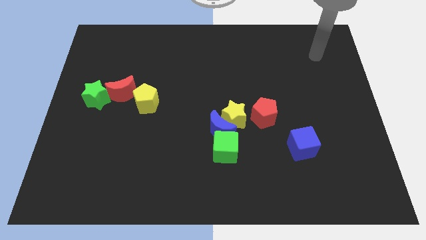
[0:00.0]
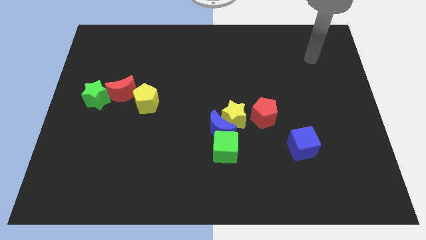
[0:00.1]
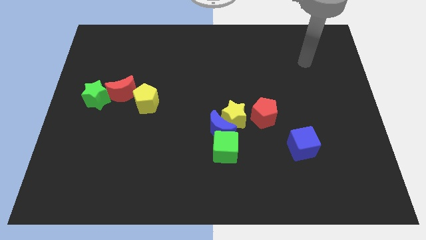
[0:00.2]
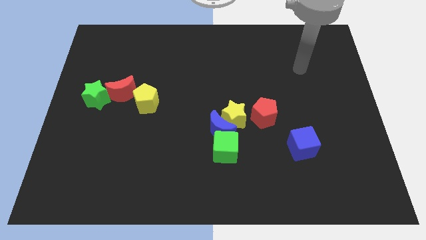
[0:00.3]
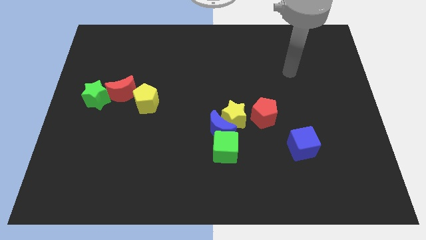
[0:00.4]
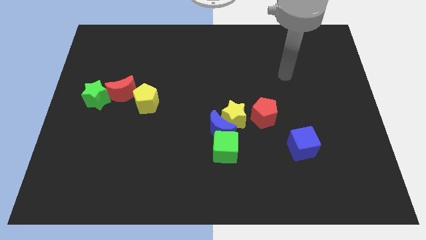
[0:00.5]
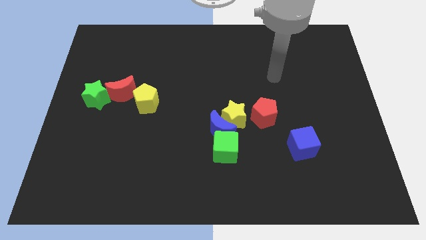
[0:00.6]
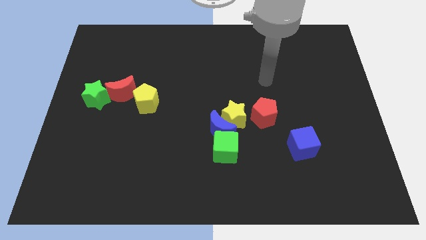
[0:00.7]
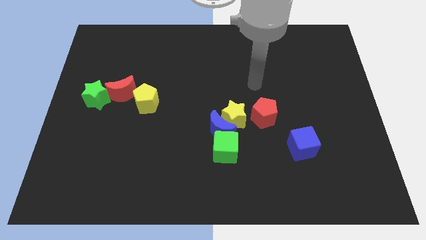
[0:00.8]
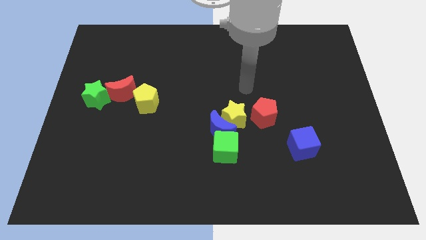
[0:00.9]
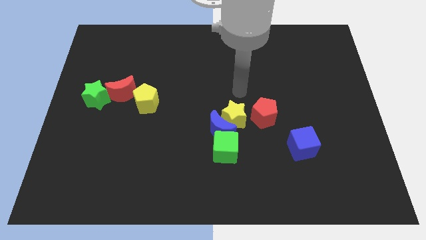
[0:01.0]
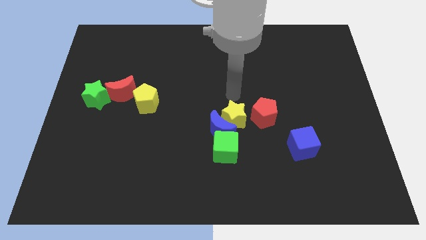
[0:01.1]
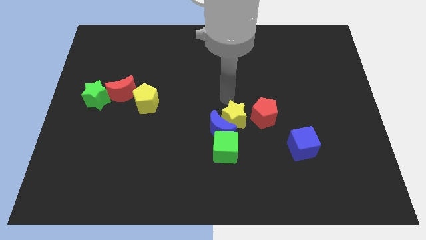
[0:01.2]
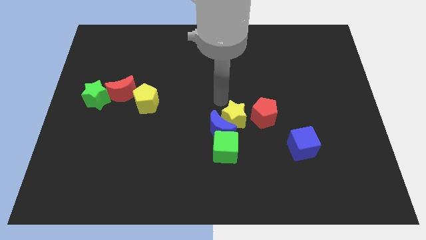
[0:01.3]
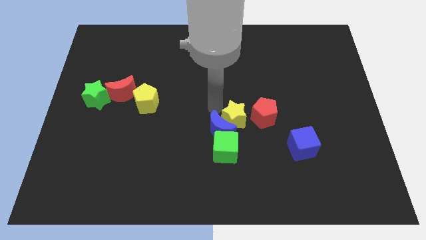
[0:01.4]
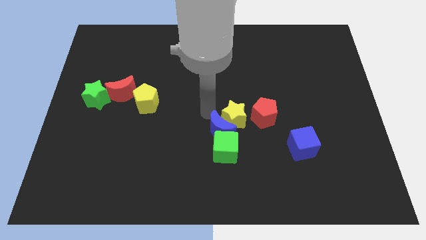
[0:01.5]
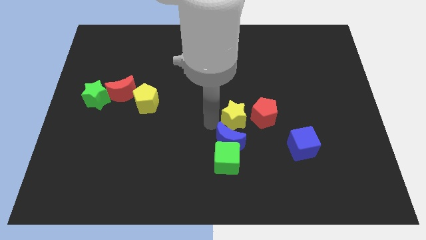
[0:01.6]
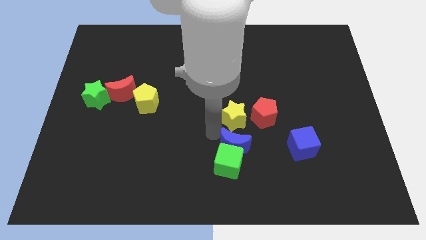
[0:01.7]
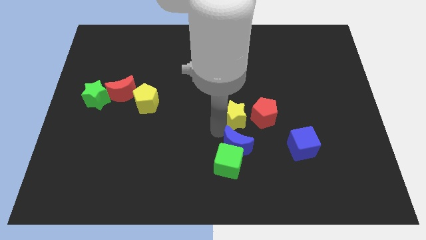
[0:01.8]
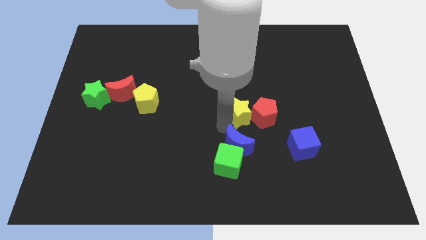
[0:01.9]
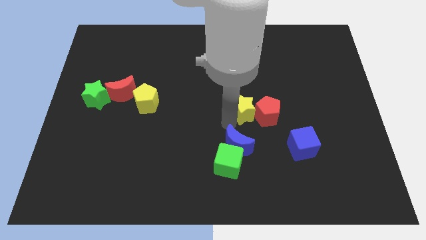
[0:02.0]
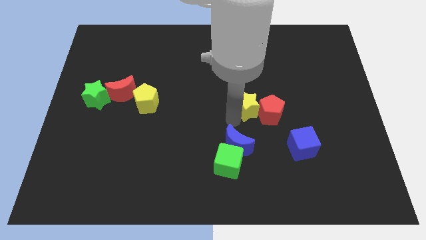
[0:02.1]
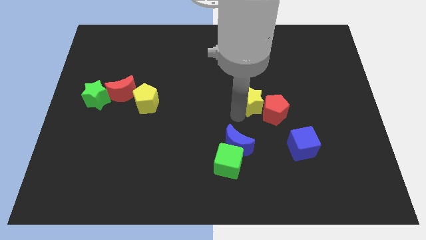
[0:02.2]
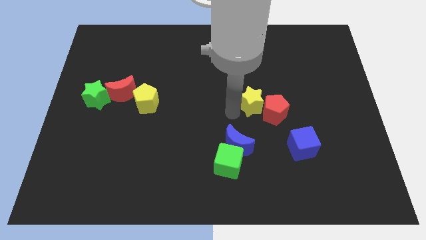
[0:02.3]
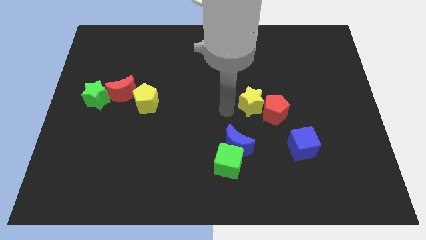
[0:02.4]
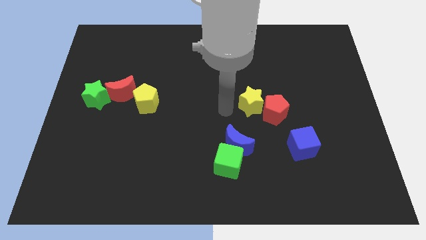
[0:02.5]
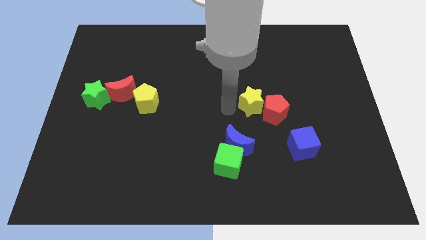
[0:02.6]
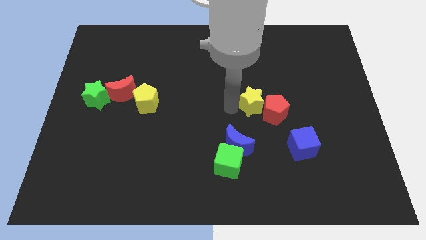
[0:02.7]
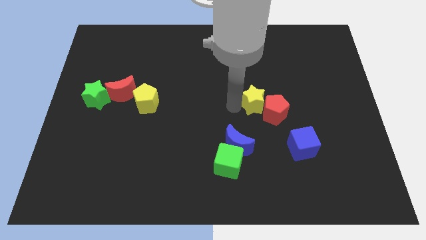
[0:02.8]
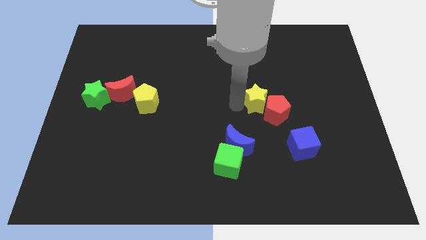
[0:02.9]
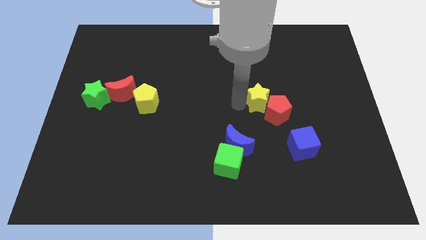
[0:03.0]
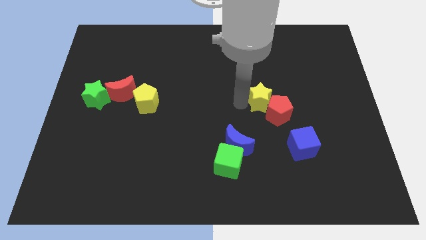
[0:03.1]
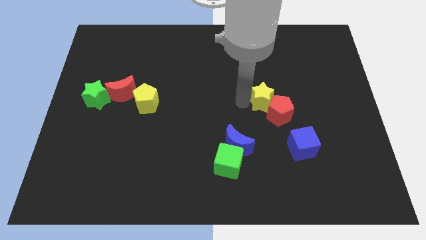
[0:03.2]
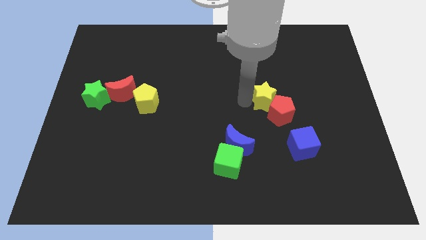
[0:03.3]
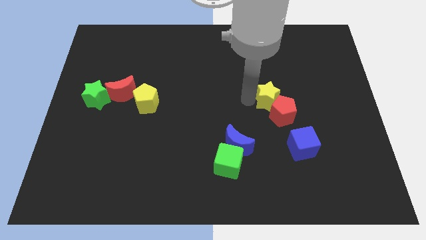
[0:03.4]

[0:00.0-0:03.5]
move the yellow star to the right a little bit

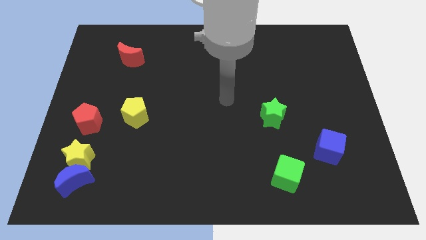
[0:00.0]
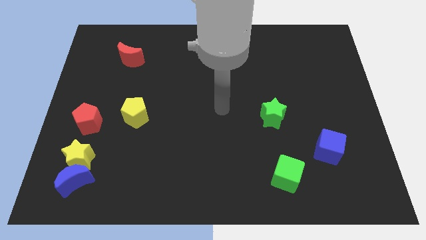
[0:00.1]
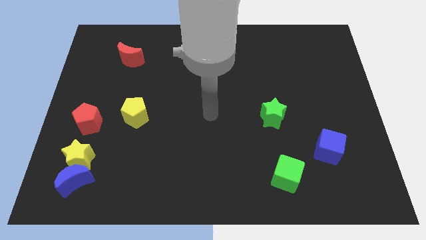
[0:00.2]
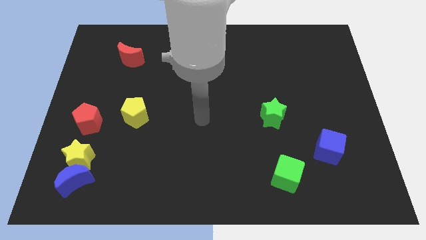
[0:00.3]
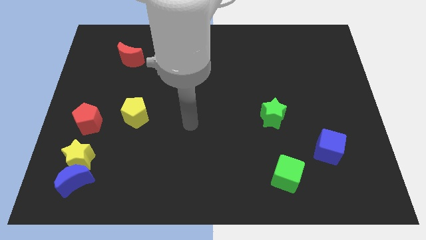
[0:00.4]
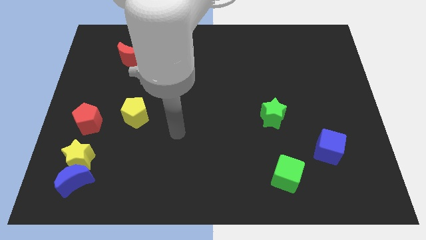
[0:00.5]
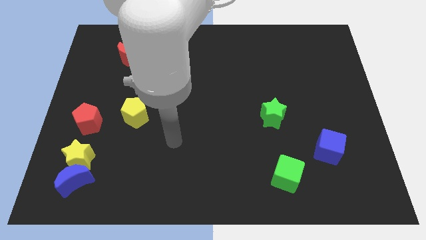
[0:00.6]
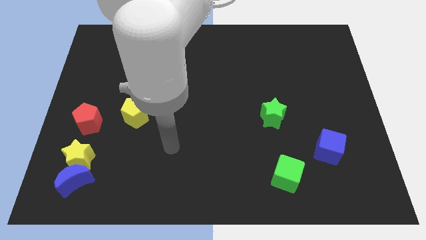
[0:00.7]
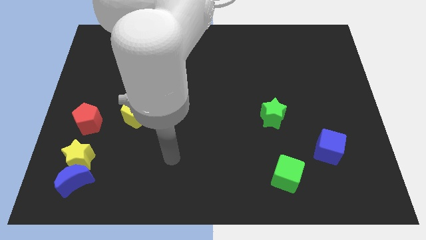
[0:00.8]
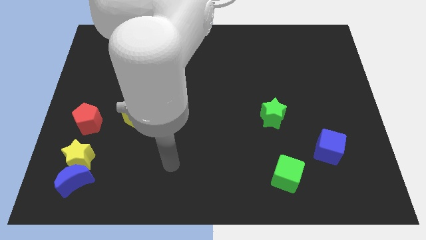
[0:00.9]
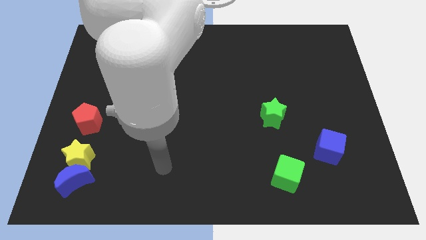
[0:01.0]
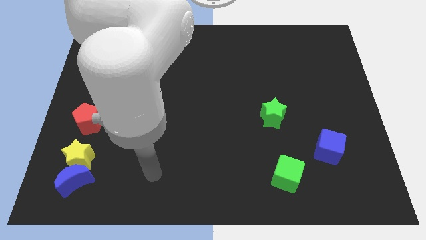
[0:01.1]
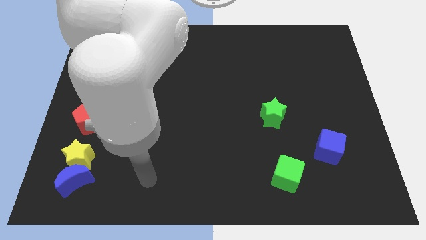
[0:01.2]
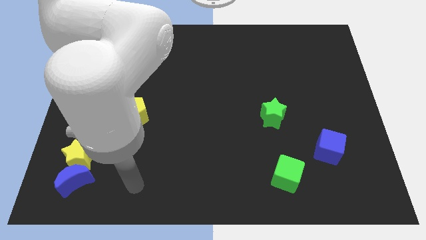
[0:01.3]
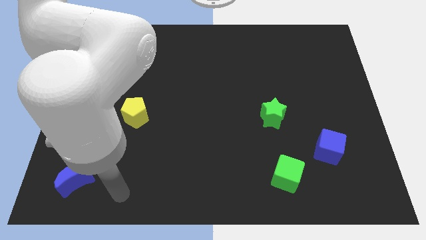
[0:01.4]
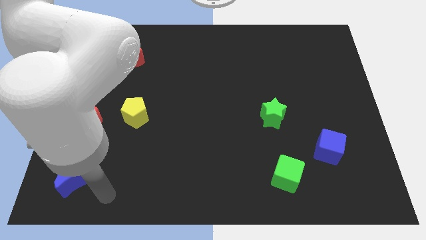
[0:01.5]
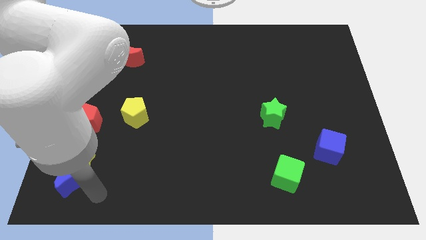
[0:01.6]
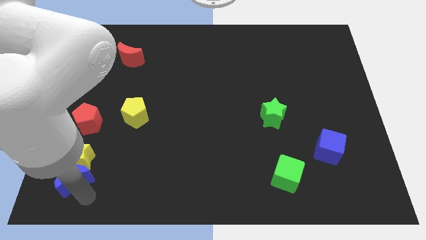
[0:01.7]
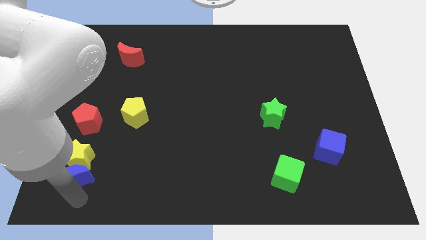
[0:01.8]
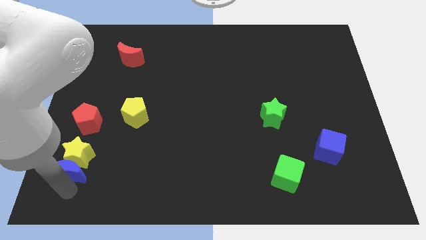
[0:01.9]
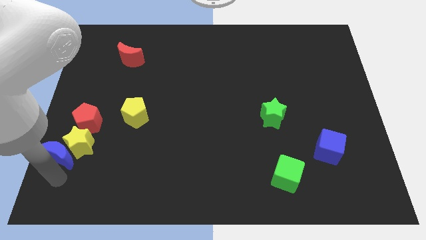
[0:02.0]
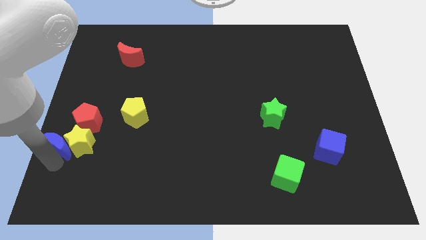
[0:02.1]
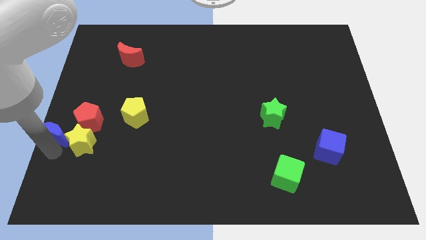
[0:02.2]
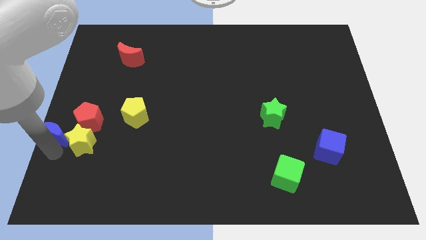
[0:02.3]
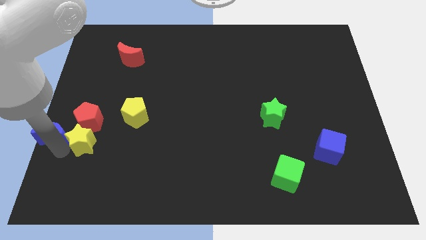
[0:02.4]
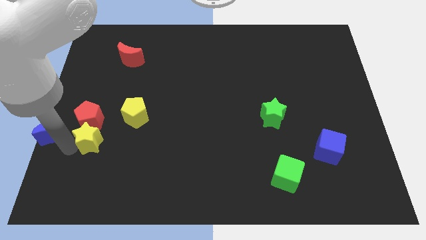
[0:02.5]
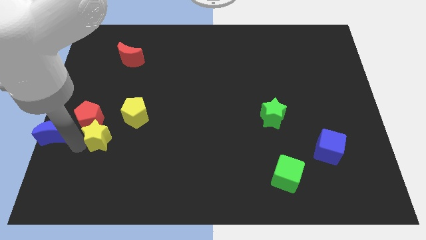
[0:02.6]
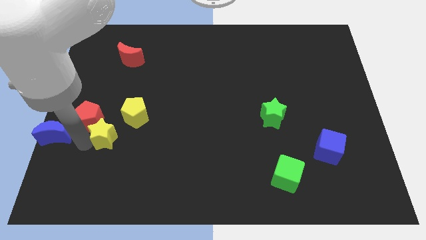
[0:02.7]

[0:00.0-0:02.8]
slightly move the yellow star upwards and right

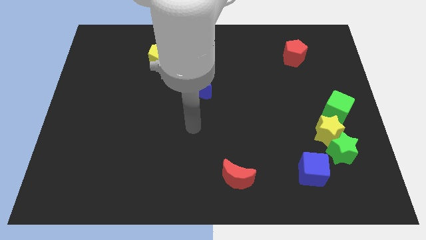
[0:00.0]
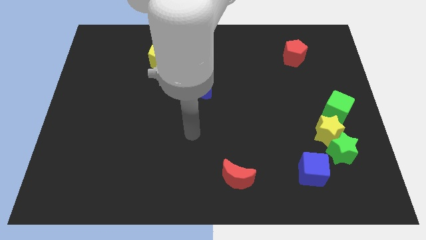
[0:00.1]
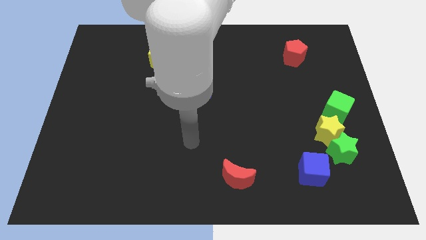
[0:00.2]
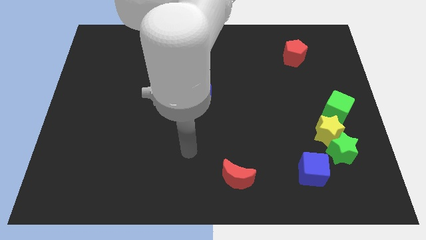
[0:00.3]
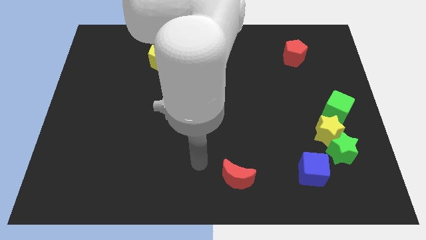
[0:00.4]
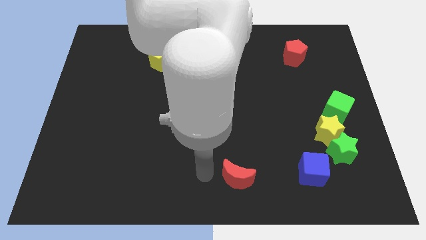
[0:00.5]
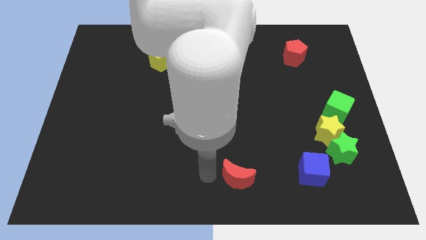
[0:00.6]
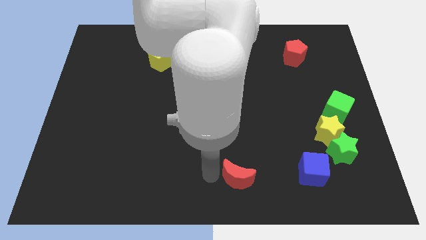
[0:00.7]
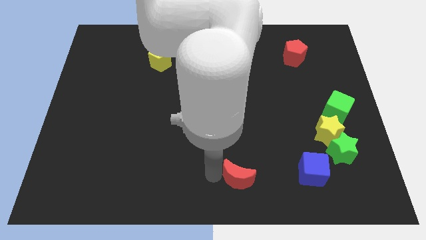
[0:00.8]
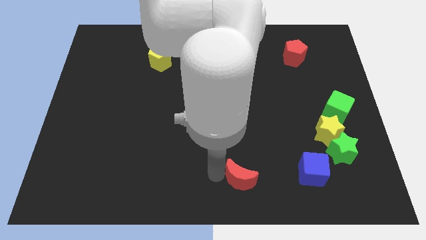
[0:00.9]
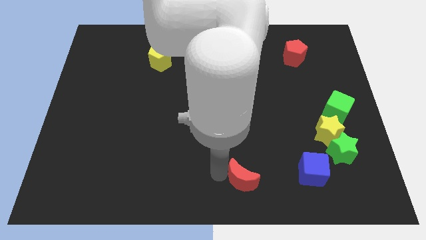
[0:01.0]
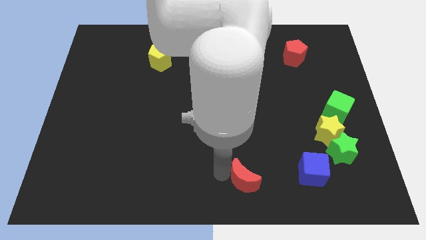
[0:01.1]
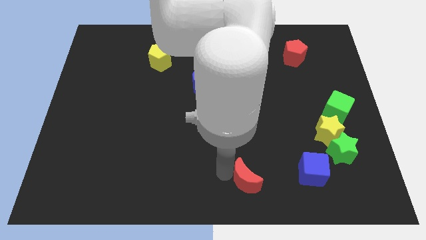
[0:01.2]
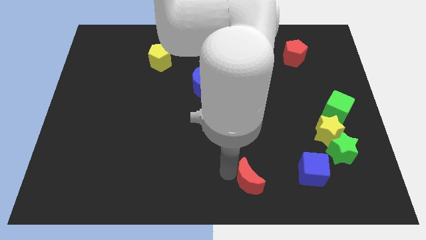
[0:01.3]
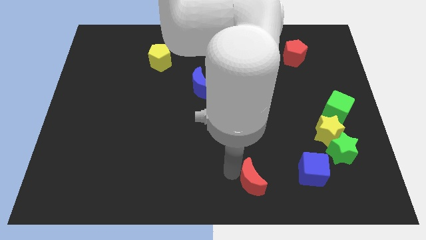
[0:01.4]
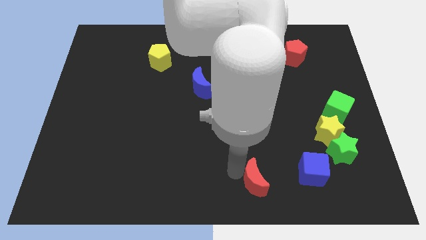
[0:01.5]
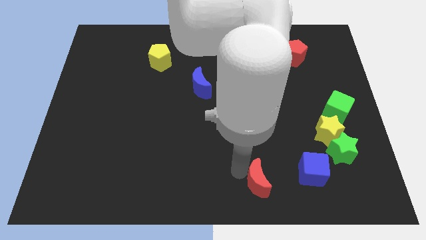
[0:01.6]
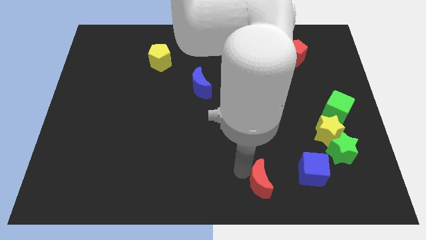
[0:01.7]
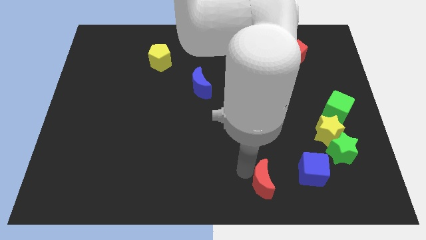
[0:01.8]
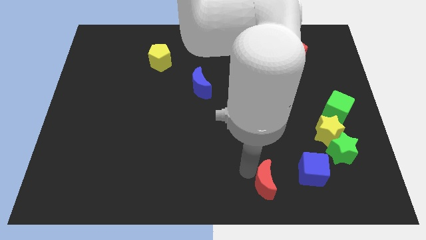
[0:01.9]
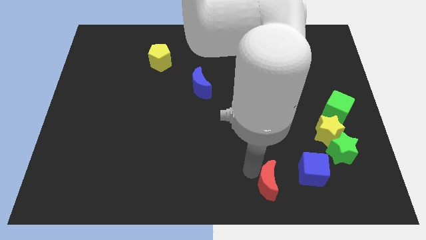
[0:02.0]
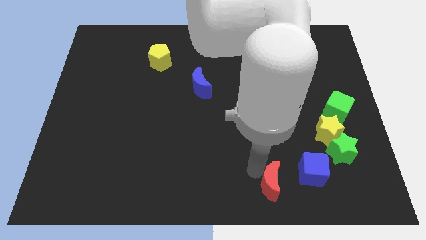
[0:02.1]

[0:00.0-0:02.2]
slightly push the red moon right

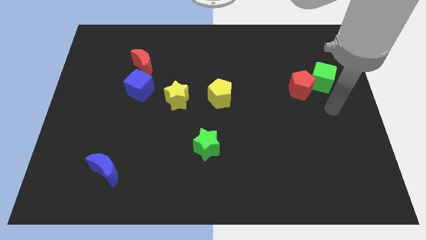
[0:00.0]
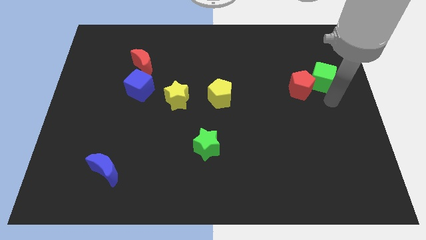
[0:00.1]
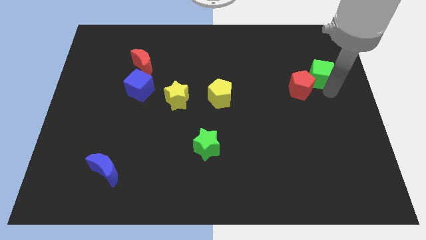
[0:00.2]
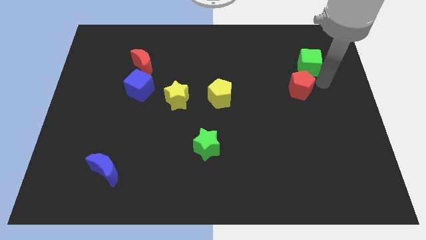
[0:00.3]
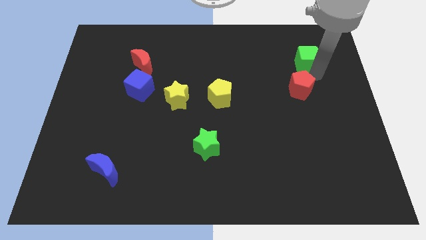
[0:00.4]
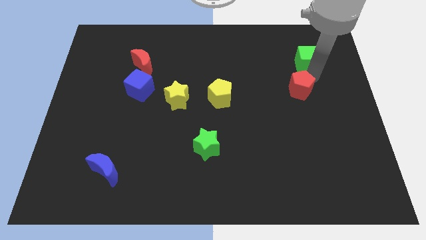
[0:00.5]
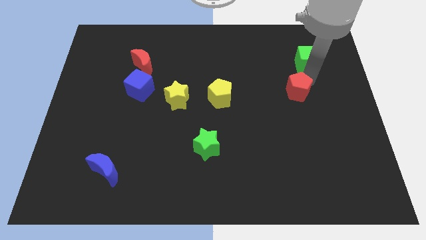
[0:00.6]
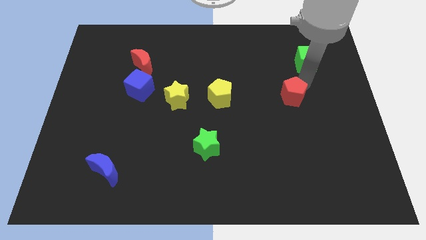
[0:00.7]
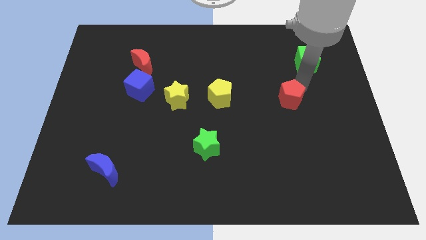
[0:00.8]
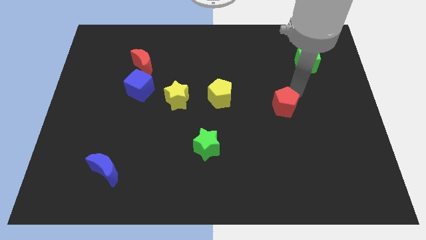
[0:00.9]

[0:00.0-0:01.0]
slightly push the red pentagon downwards and to the left diagonally
